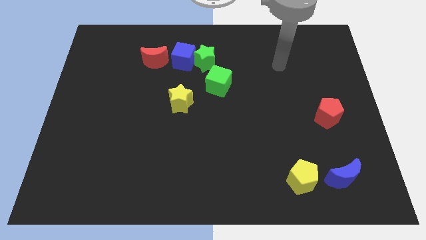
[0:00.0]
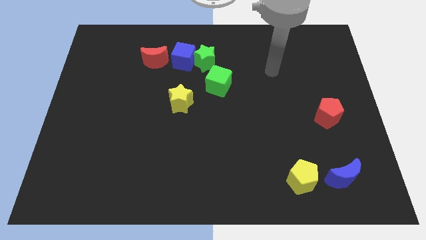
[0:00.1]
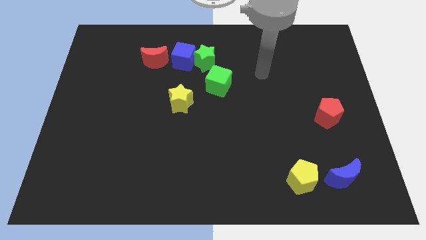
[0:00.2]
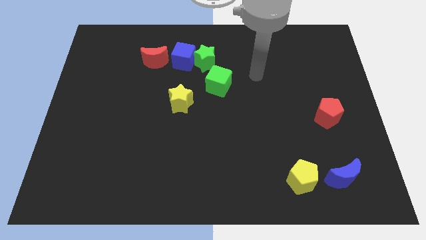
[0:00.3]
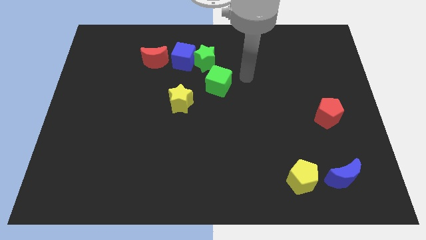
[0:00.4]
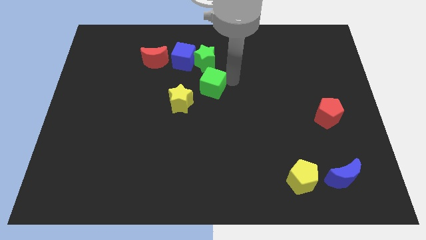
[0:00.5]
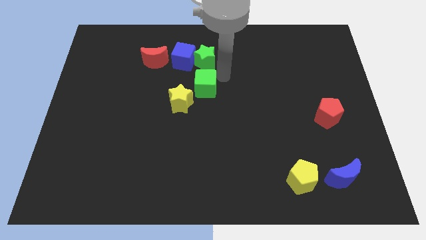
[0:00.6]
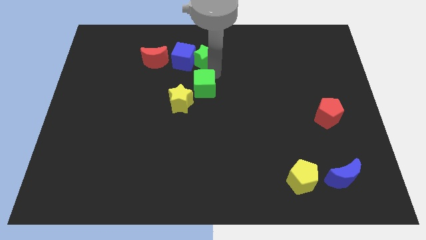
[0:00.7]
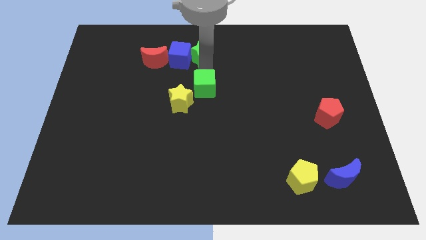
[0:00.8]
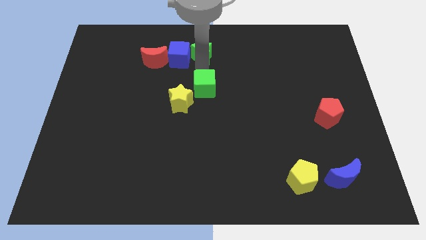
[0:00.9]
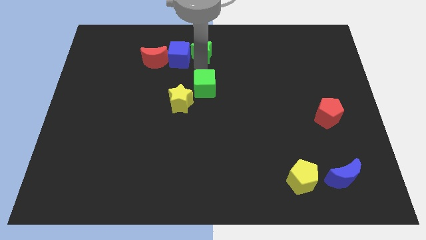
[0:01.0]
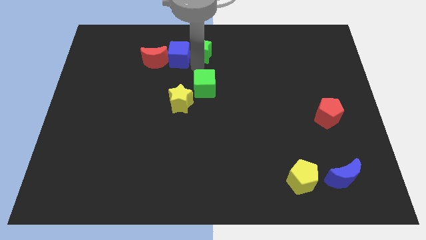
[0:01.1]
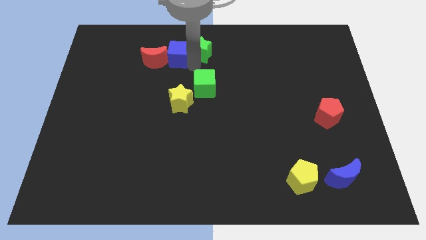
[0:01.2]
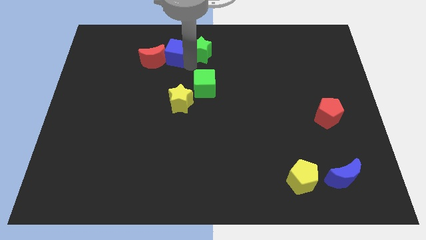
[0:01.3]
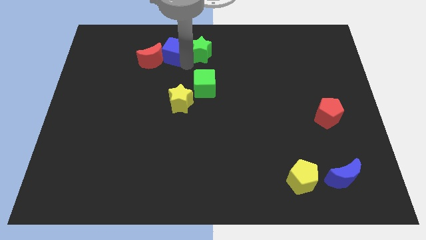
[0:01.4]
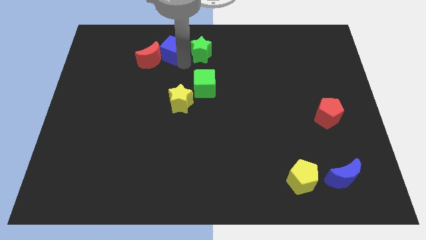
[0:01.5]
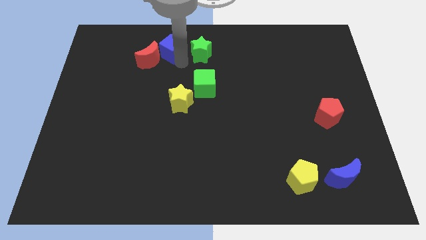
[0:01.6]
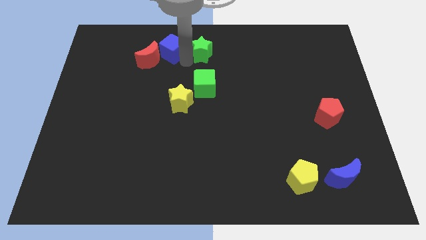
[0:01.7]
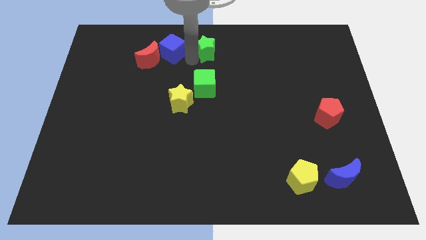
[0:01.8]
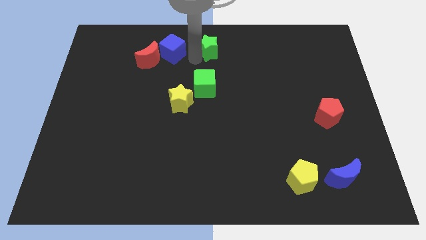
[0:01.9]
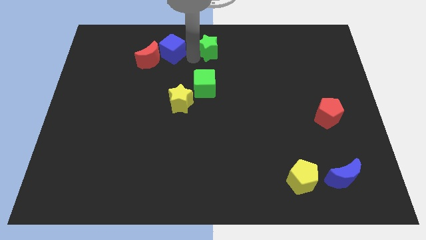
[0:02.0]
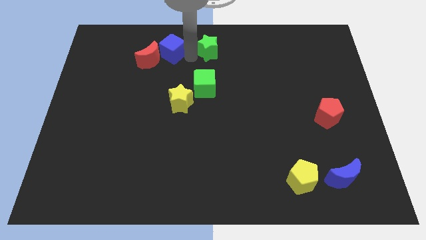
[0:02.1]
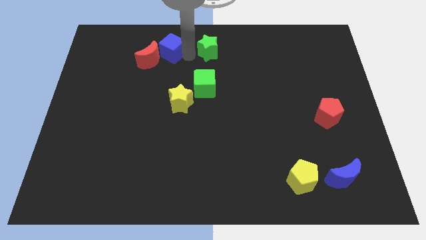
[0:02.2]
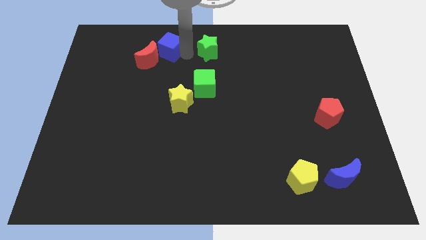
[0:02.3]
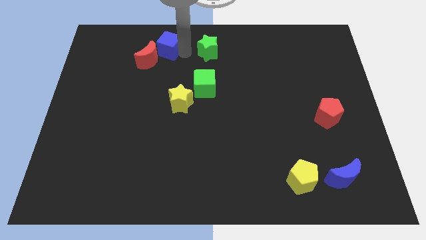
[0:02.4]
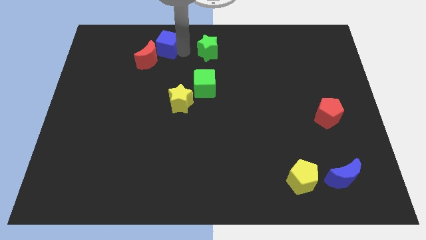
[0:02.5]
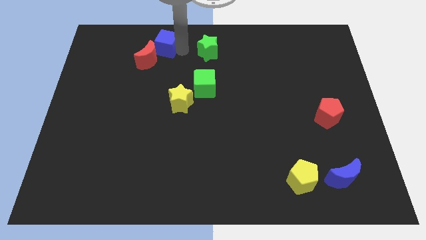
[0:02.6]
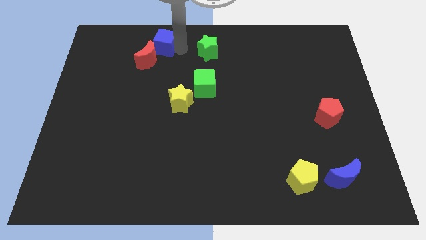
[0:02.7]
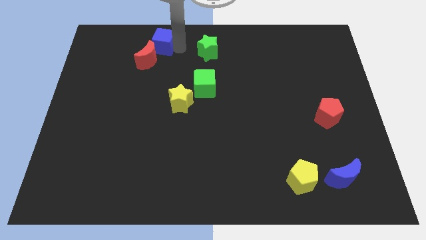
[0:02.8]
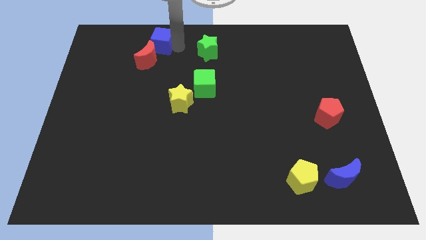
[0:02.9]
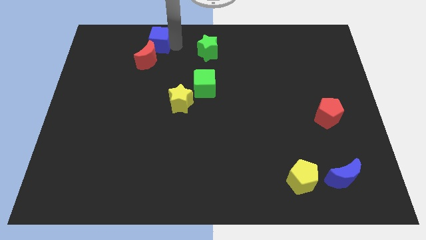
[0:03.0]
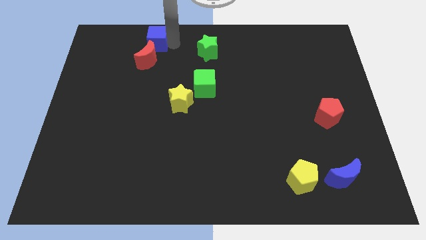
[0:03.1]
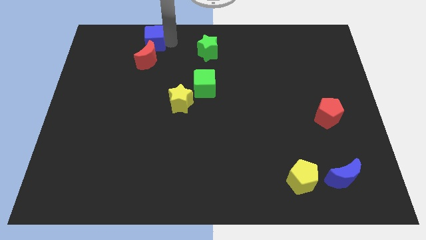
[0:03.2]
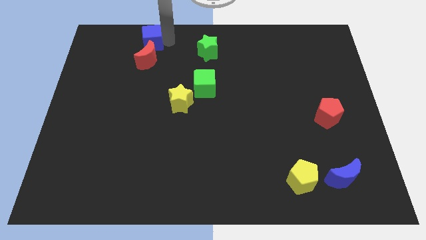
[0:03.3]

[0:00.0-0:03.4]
push the blue cube to the left slightly

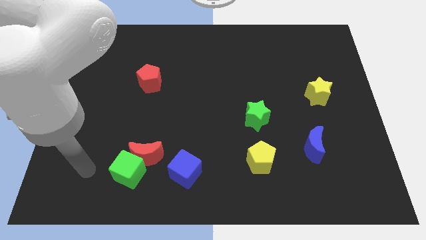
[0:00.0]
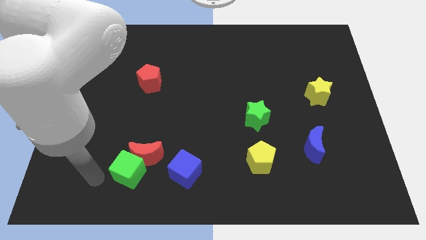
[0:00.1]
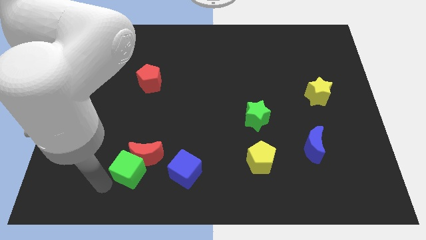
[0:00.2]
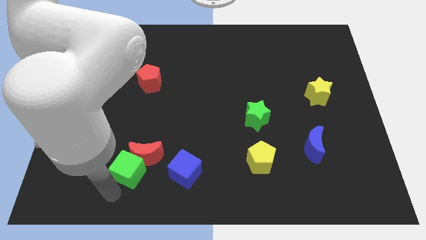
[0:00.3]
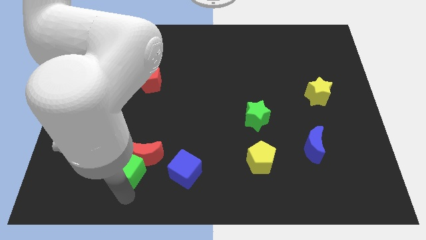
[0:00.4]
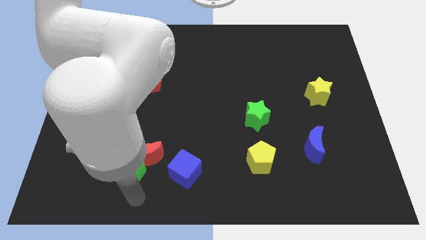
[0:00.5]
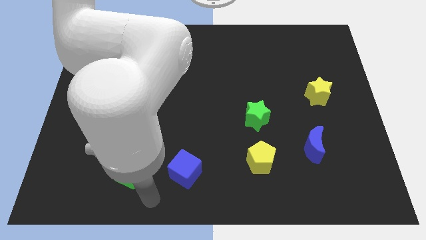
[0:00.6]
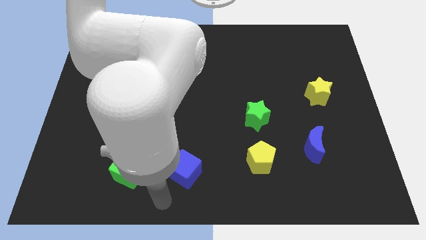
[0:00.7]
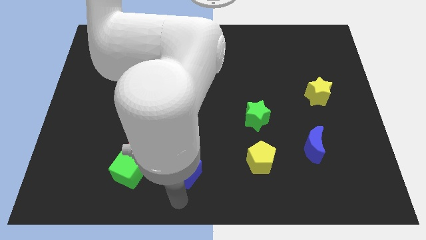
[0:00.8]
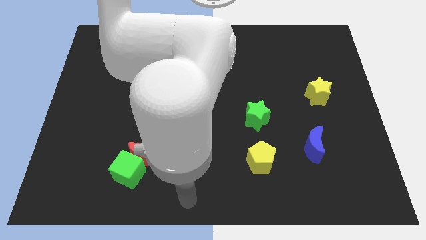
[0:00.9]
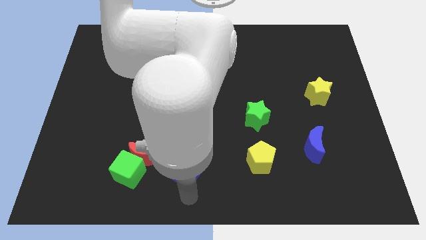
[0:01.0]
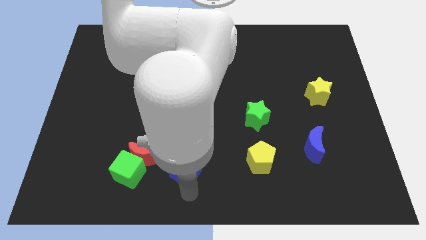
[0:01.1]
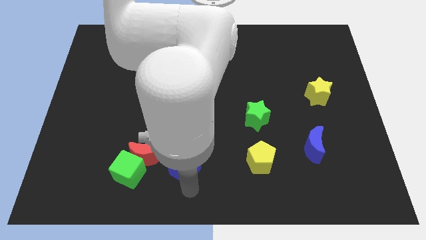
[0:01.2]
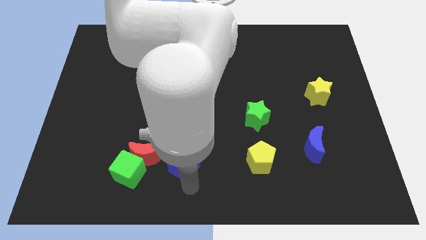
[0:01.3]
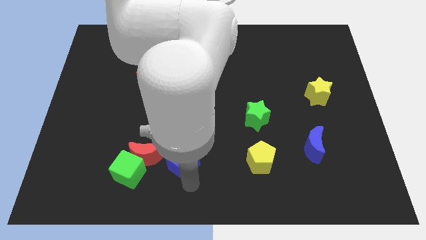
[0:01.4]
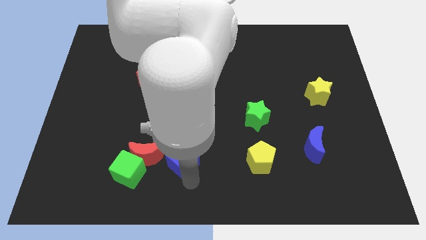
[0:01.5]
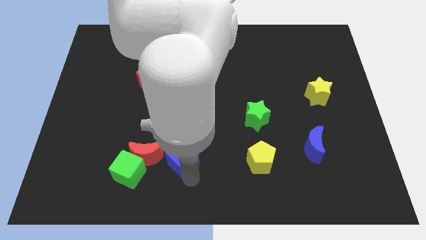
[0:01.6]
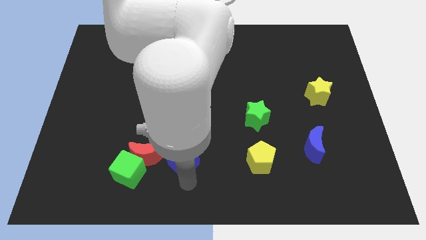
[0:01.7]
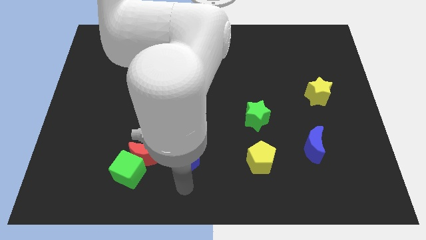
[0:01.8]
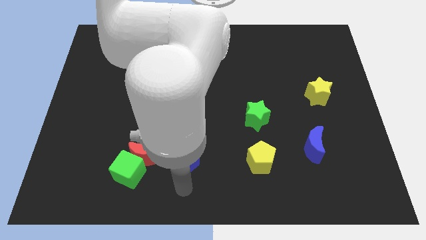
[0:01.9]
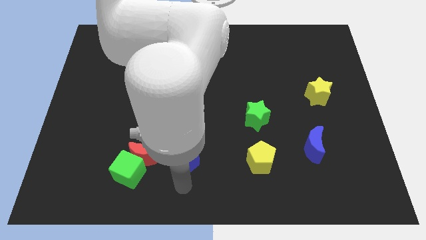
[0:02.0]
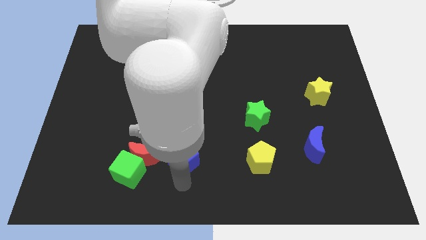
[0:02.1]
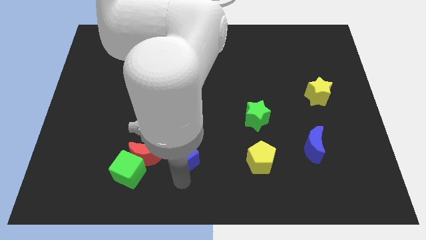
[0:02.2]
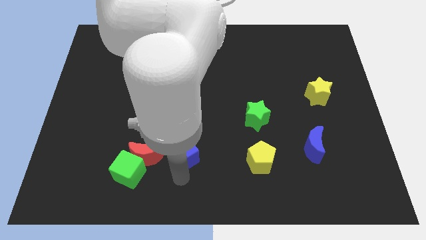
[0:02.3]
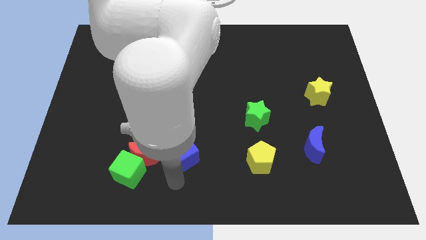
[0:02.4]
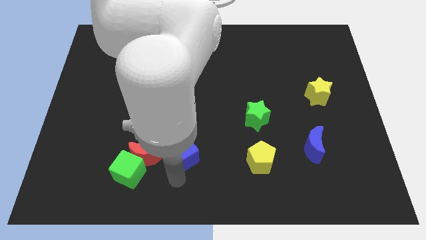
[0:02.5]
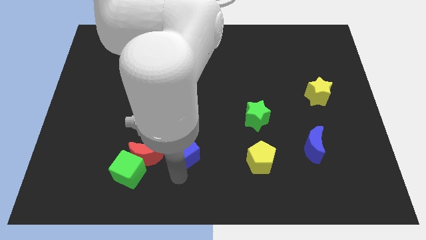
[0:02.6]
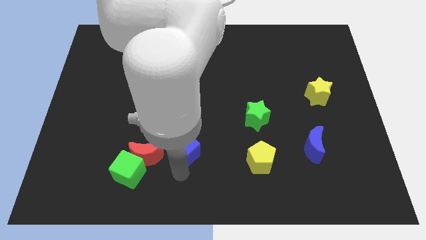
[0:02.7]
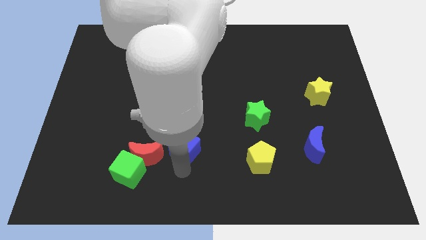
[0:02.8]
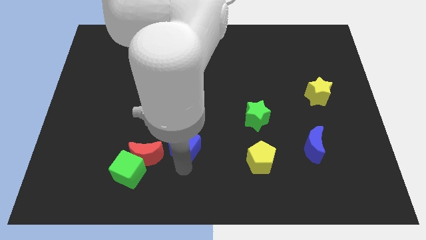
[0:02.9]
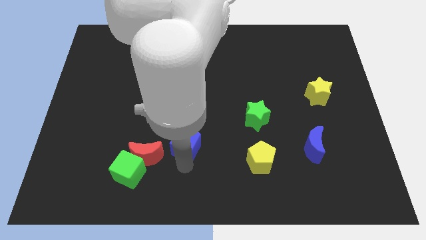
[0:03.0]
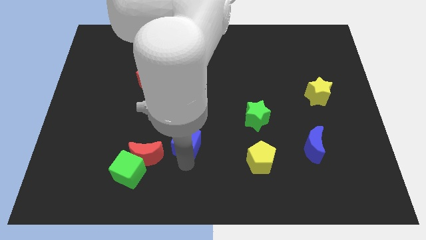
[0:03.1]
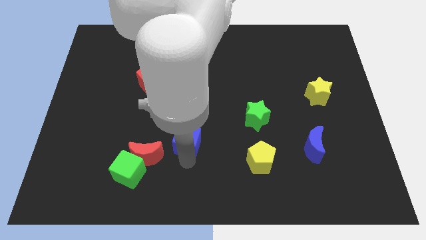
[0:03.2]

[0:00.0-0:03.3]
move the blue cube slightly up

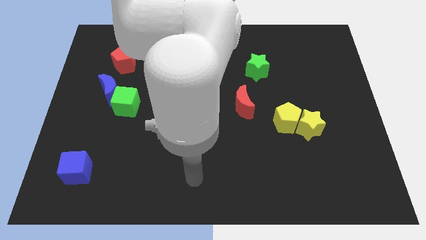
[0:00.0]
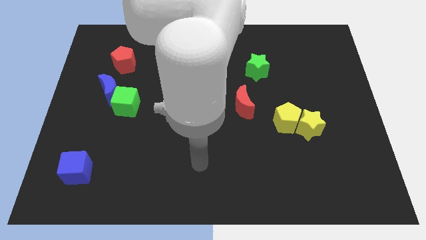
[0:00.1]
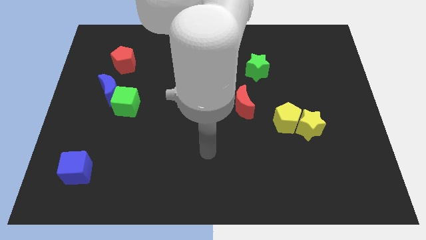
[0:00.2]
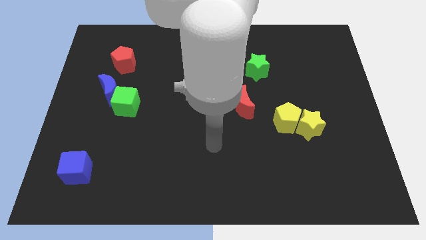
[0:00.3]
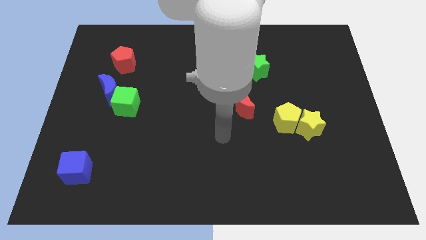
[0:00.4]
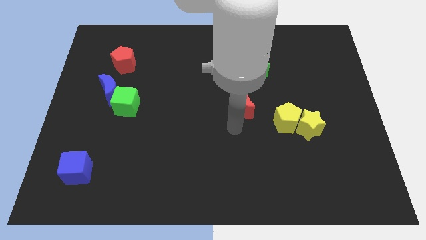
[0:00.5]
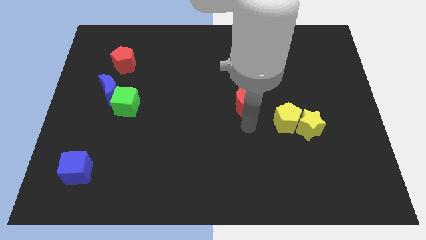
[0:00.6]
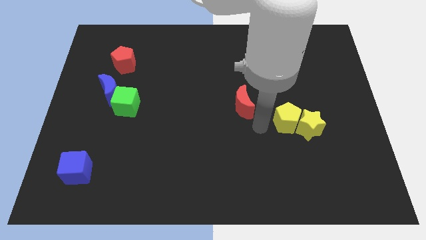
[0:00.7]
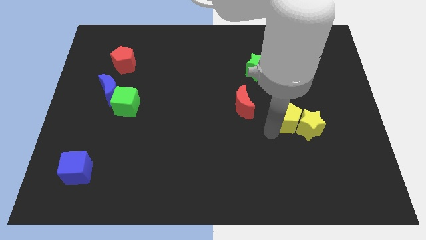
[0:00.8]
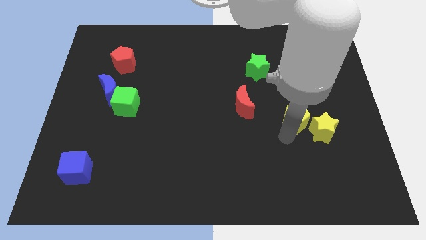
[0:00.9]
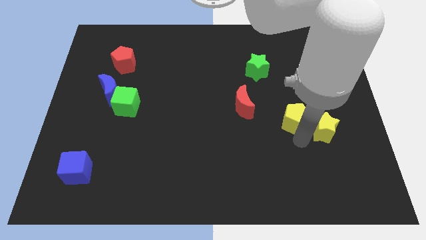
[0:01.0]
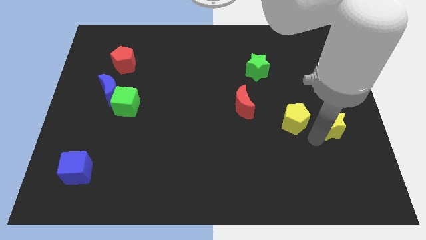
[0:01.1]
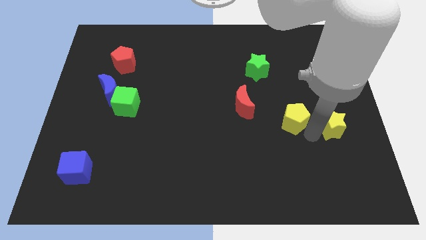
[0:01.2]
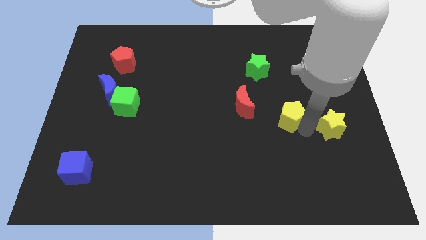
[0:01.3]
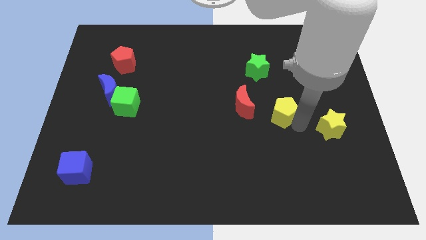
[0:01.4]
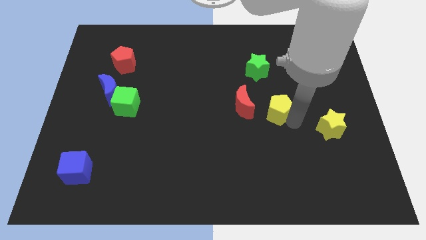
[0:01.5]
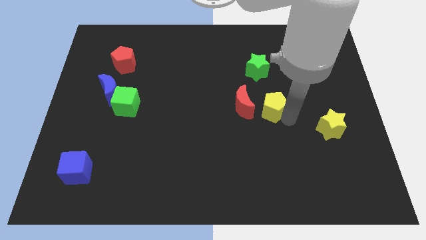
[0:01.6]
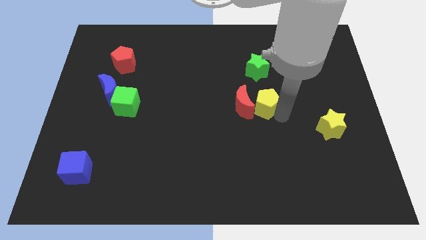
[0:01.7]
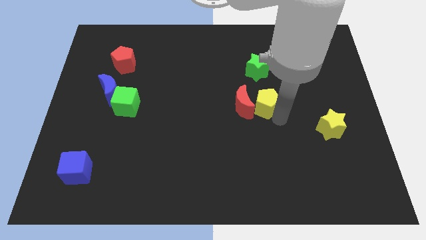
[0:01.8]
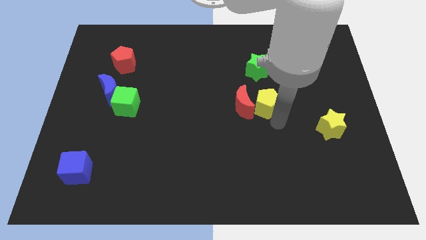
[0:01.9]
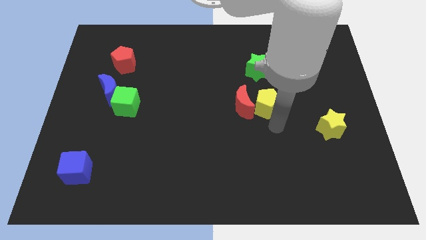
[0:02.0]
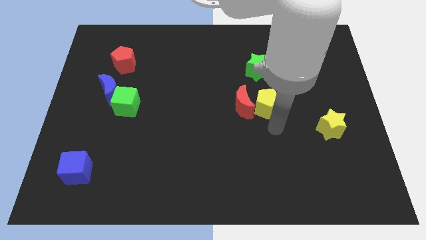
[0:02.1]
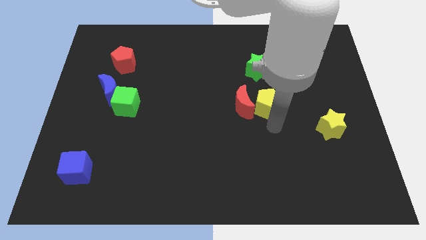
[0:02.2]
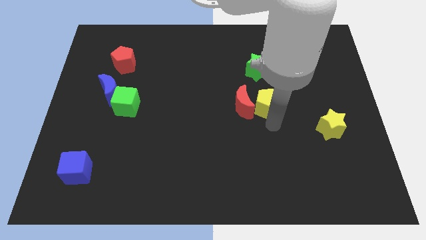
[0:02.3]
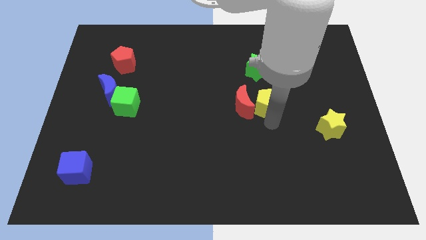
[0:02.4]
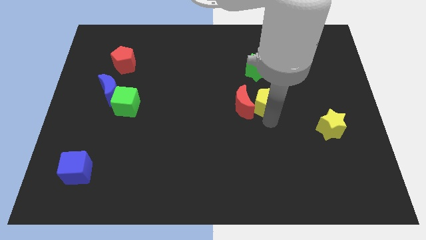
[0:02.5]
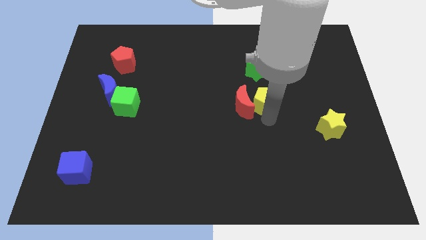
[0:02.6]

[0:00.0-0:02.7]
push the yellow pentagon up and to the left slightly
